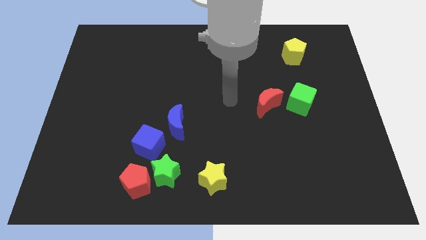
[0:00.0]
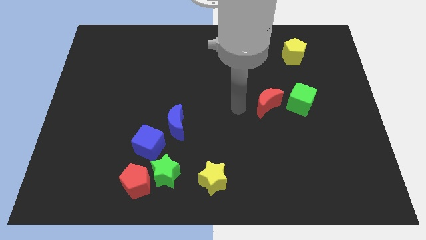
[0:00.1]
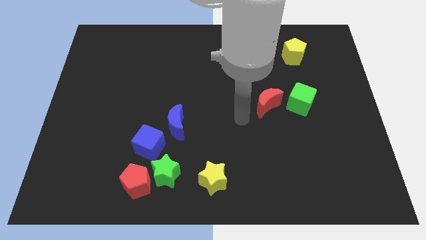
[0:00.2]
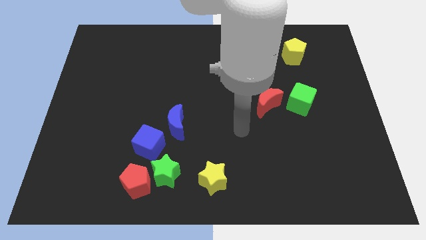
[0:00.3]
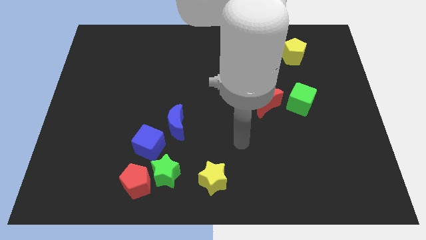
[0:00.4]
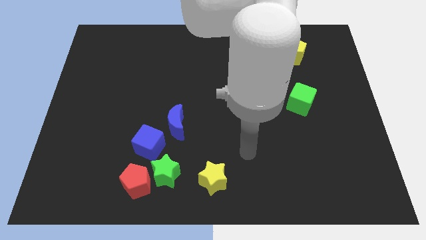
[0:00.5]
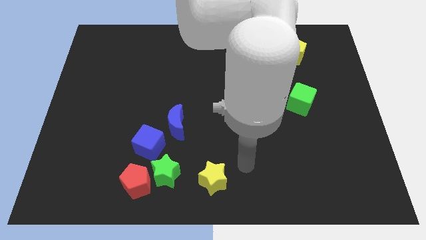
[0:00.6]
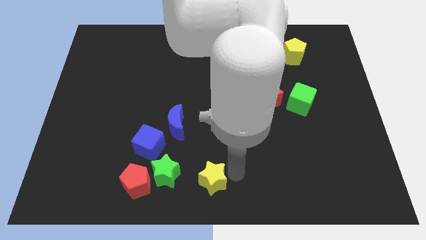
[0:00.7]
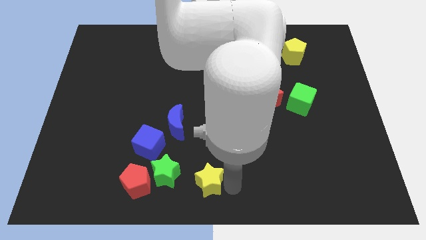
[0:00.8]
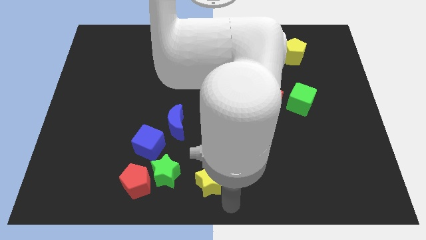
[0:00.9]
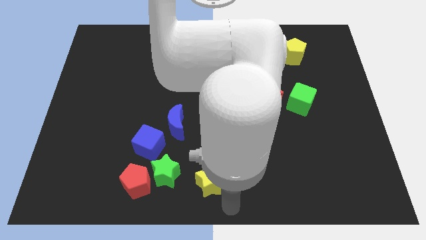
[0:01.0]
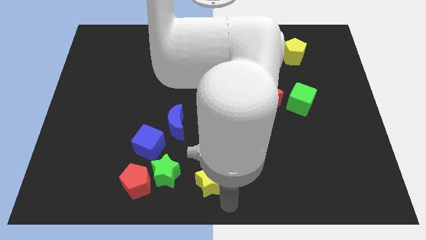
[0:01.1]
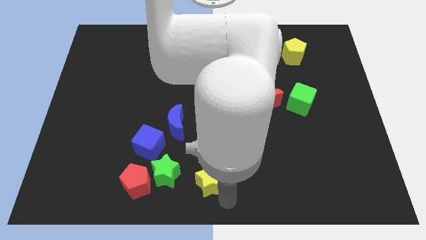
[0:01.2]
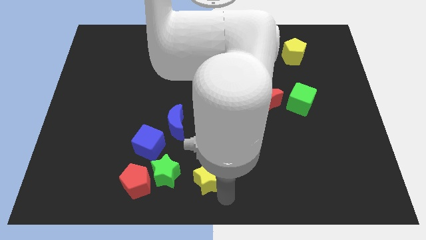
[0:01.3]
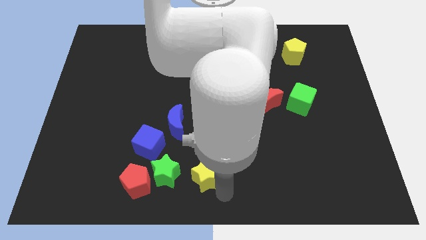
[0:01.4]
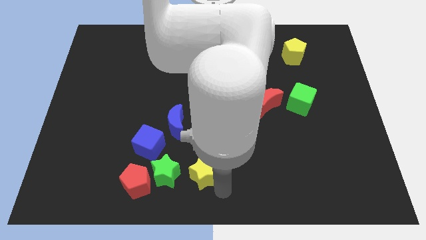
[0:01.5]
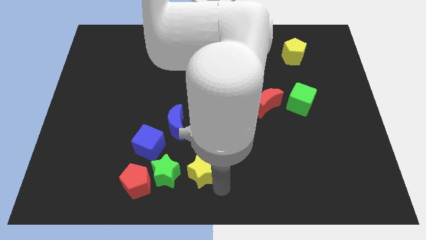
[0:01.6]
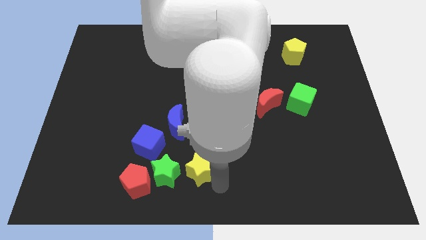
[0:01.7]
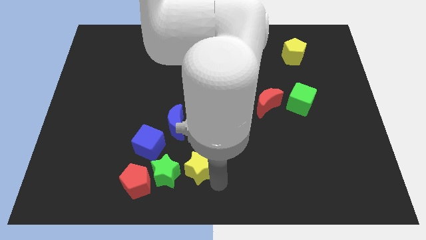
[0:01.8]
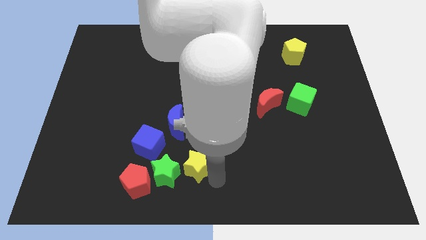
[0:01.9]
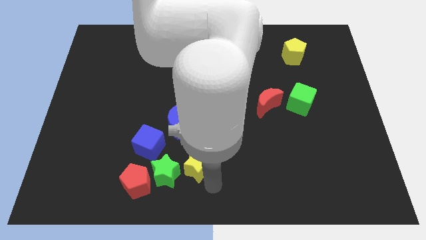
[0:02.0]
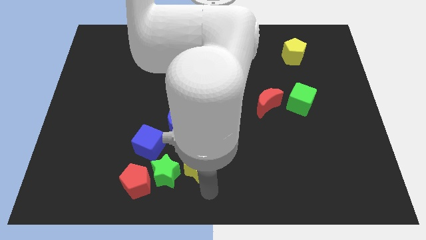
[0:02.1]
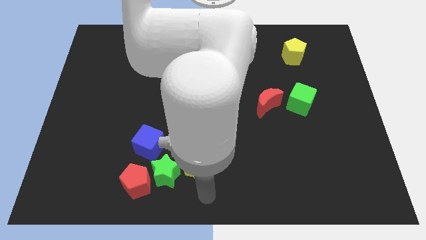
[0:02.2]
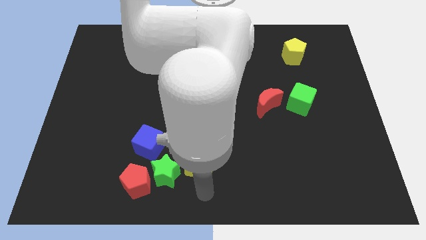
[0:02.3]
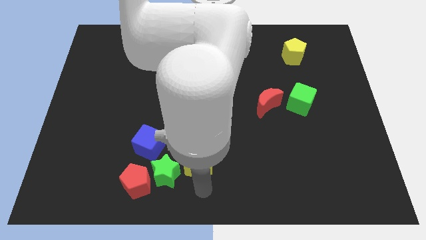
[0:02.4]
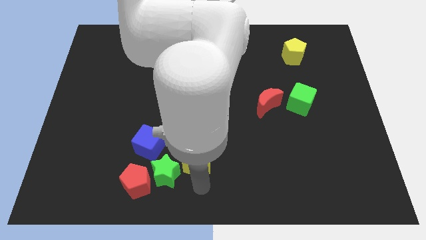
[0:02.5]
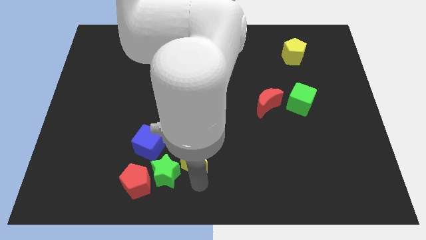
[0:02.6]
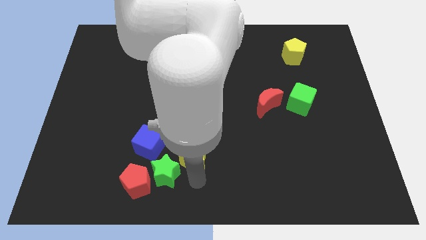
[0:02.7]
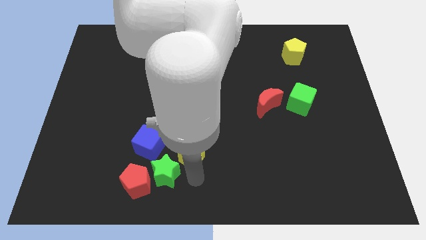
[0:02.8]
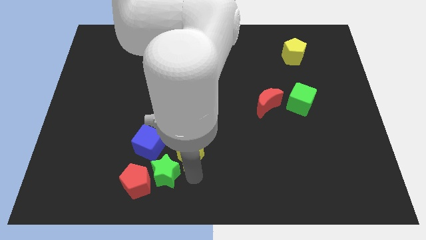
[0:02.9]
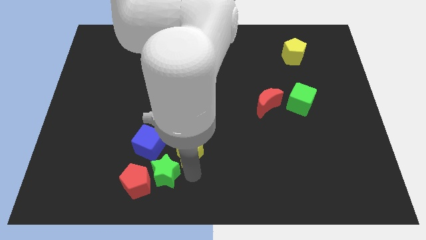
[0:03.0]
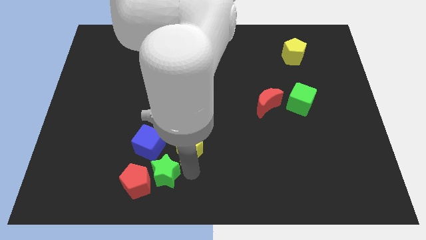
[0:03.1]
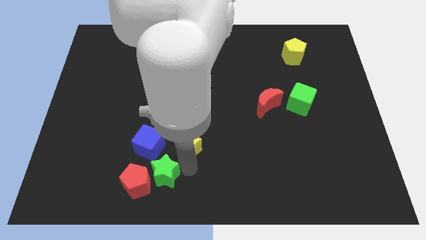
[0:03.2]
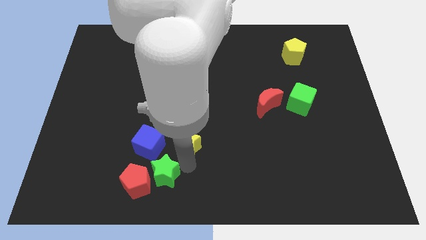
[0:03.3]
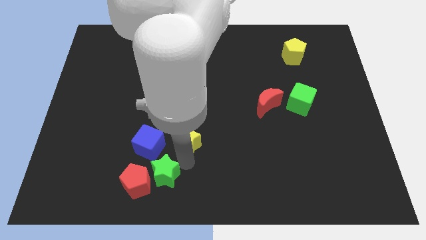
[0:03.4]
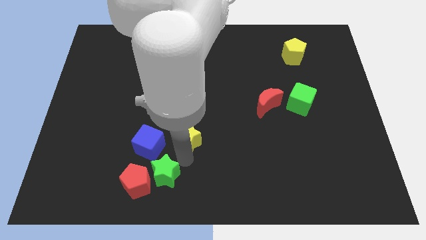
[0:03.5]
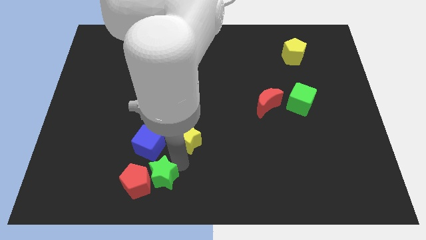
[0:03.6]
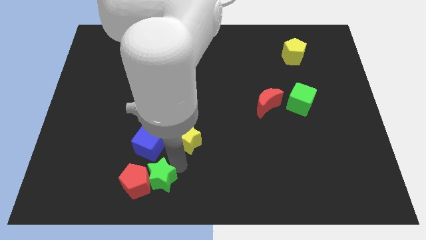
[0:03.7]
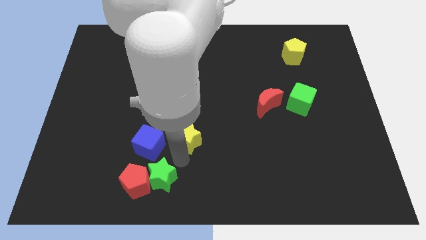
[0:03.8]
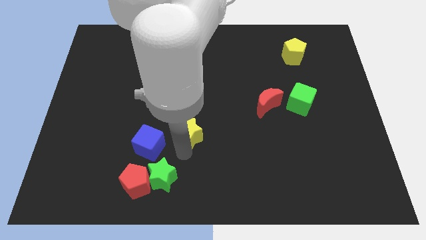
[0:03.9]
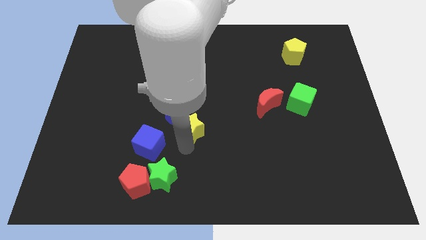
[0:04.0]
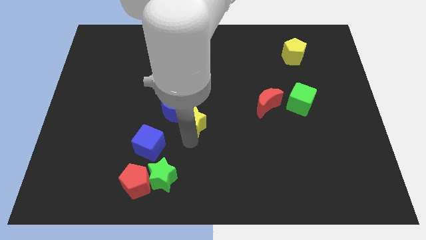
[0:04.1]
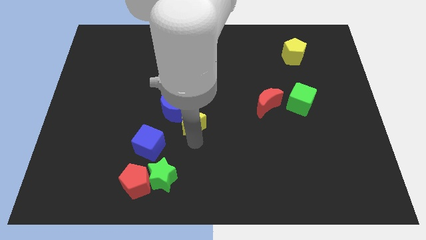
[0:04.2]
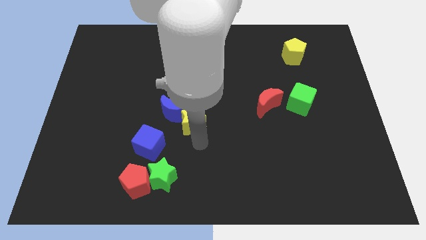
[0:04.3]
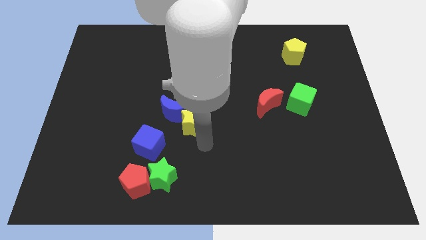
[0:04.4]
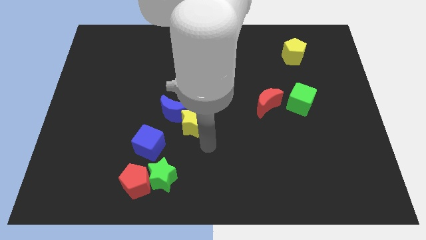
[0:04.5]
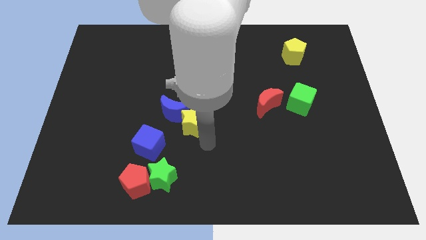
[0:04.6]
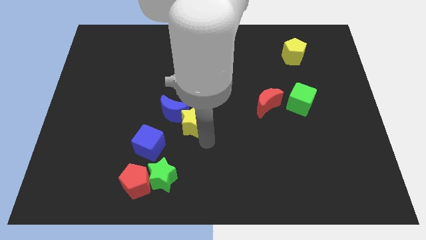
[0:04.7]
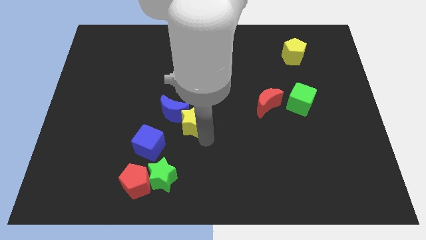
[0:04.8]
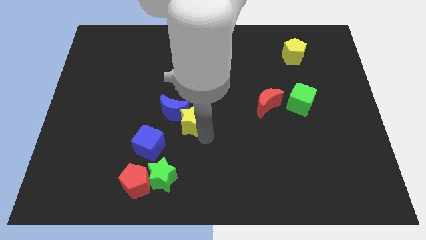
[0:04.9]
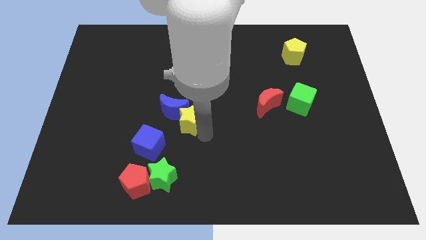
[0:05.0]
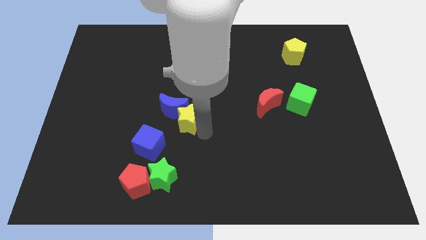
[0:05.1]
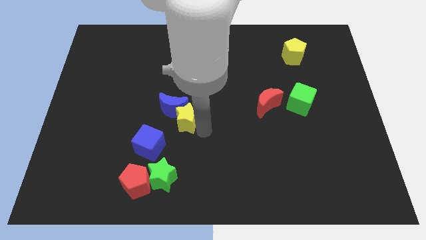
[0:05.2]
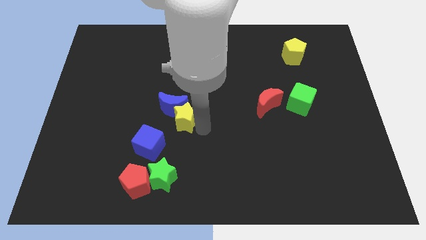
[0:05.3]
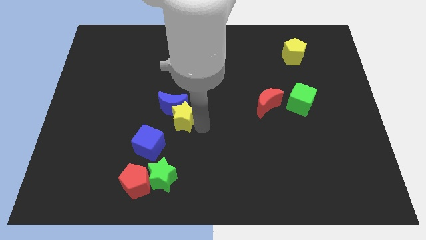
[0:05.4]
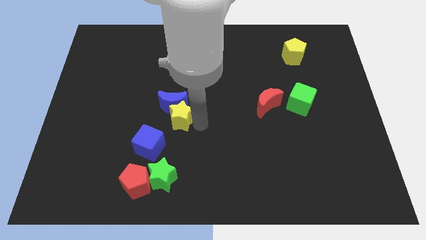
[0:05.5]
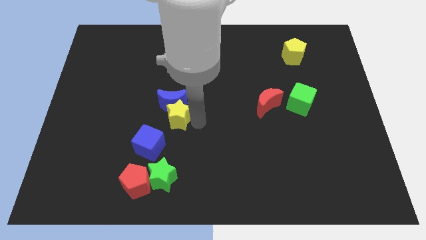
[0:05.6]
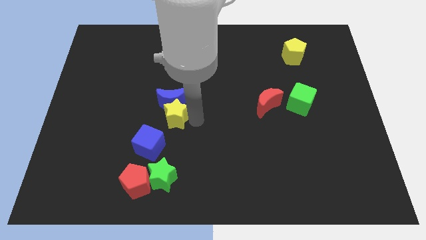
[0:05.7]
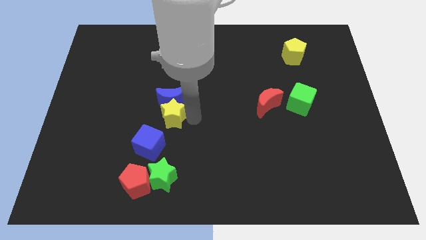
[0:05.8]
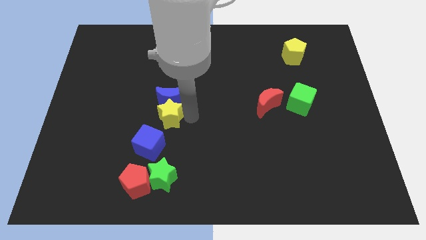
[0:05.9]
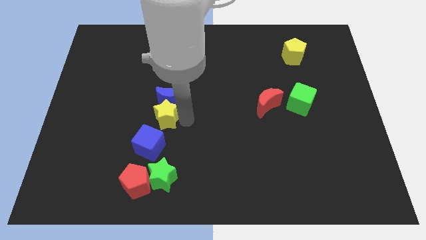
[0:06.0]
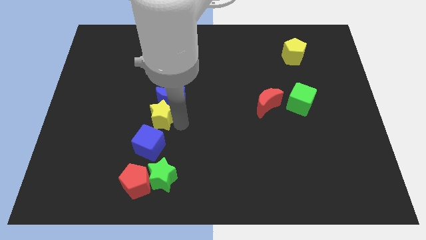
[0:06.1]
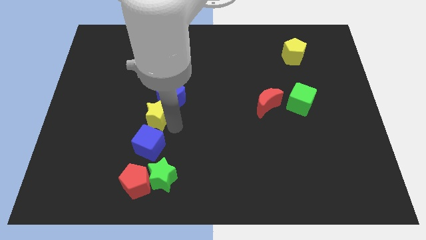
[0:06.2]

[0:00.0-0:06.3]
move the yellow star diagonally upwards and left

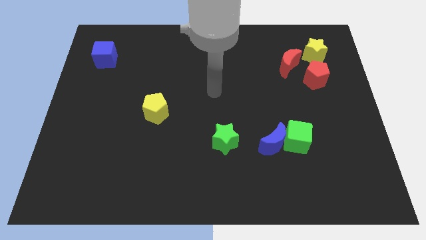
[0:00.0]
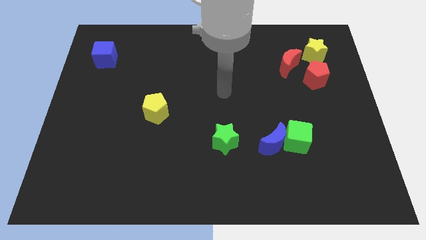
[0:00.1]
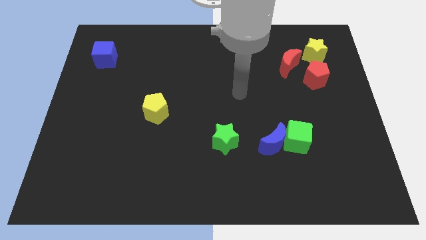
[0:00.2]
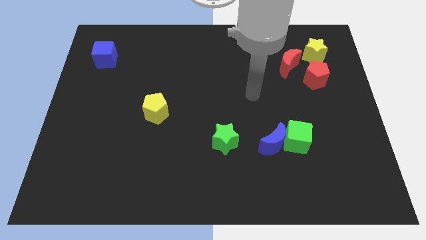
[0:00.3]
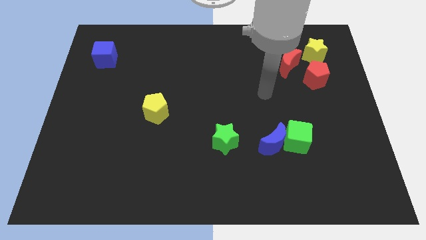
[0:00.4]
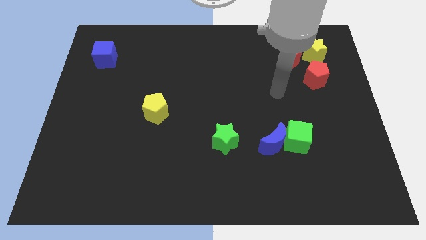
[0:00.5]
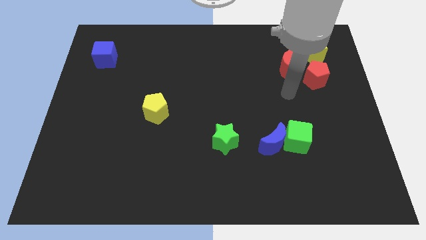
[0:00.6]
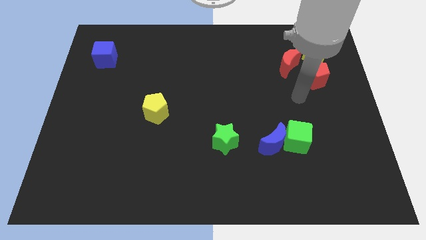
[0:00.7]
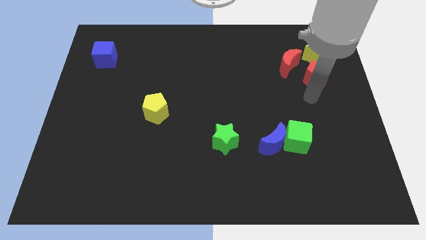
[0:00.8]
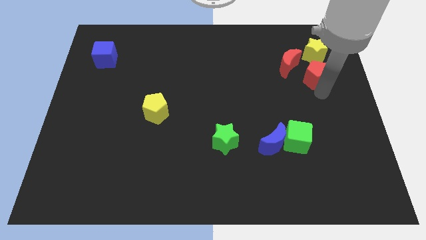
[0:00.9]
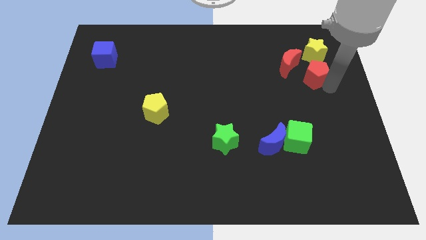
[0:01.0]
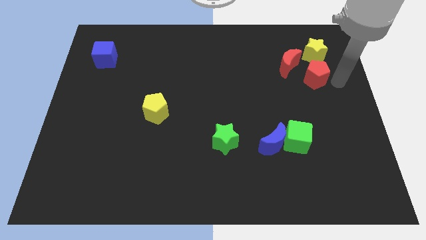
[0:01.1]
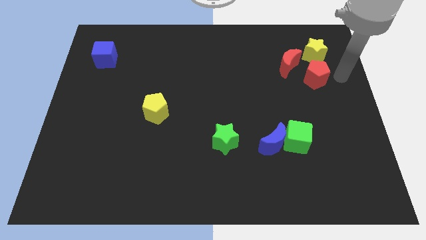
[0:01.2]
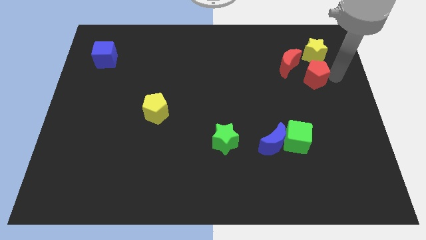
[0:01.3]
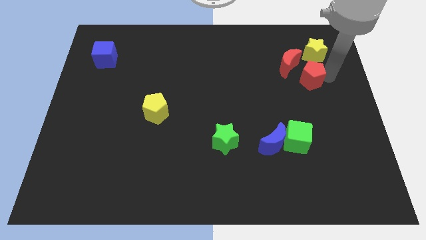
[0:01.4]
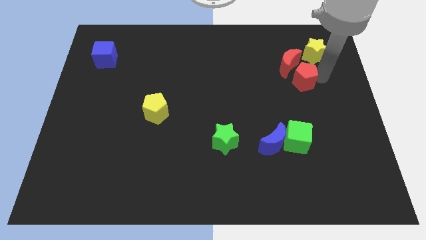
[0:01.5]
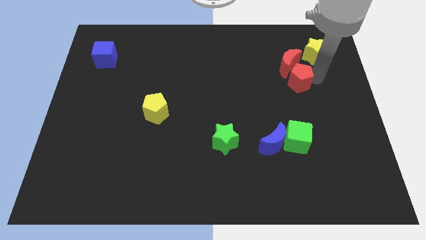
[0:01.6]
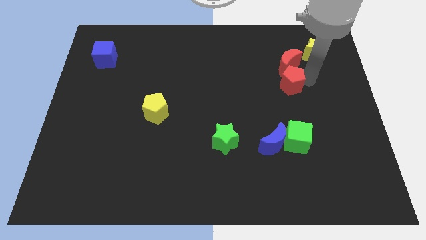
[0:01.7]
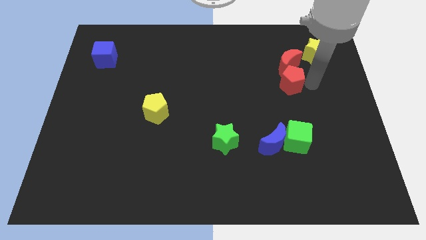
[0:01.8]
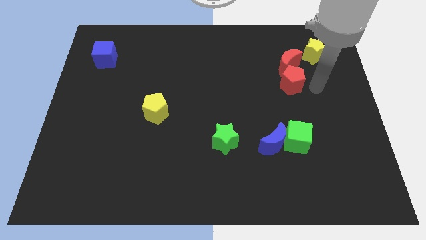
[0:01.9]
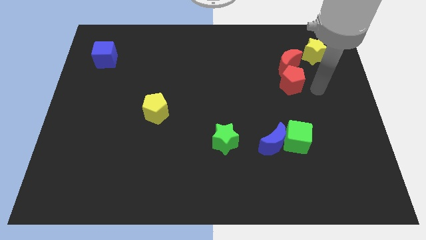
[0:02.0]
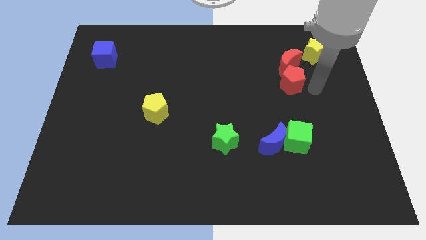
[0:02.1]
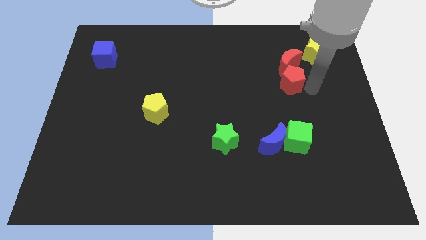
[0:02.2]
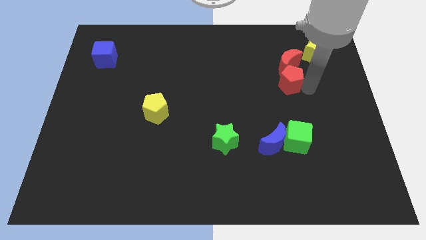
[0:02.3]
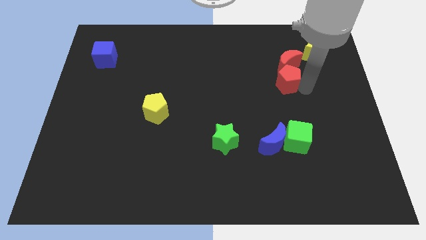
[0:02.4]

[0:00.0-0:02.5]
push the red pentagon left slightly
